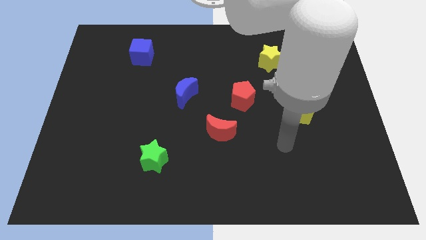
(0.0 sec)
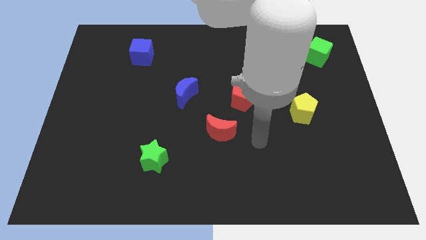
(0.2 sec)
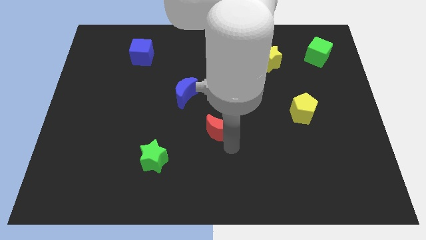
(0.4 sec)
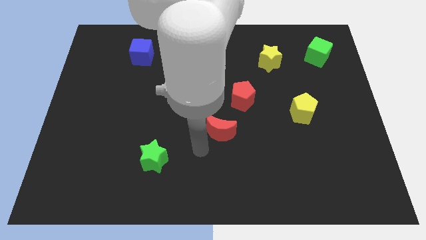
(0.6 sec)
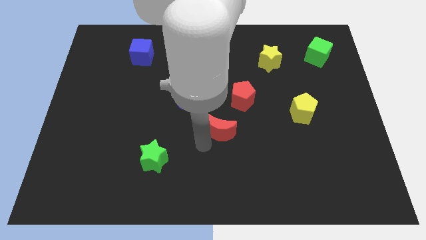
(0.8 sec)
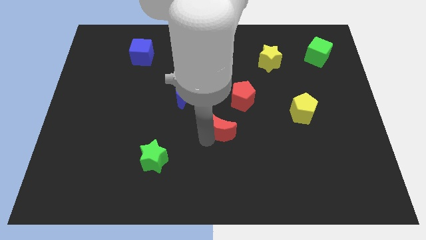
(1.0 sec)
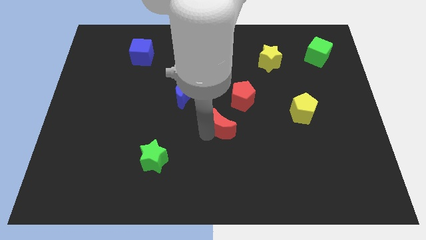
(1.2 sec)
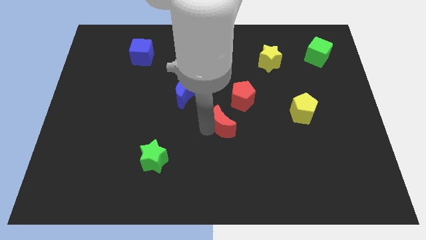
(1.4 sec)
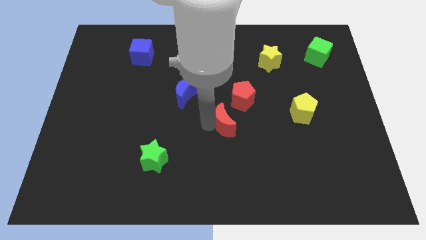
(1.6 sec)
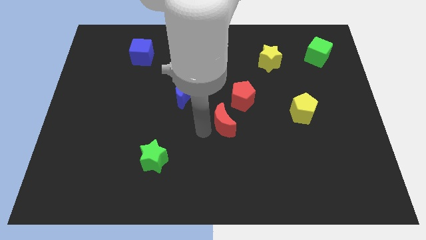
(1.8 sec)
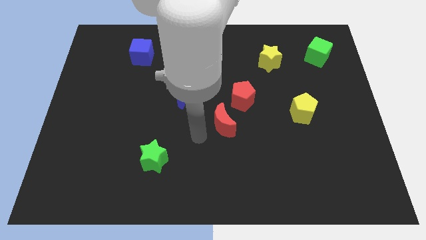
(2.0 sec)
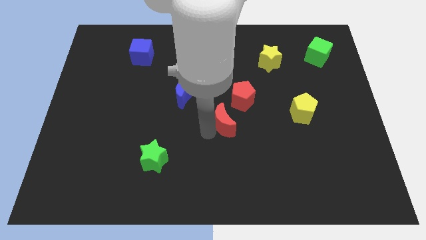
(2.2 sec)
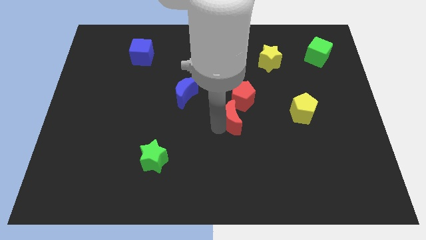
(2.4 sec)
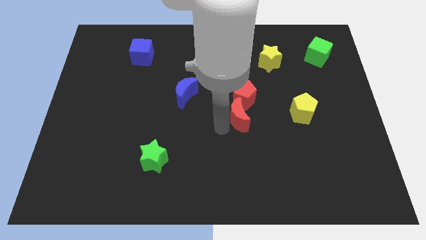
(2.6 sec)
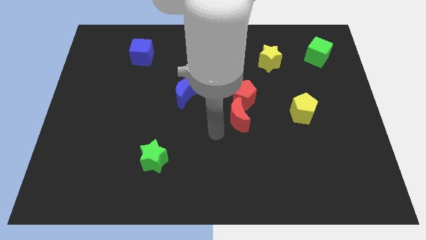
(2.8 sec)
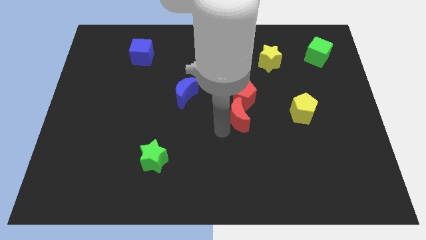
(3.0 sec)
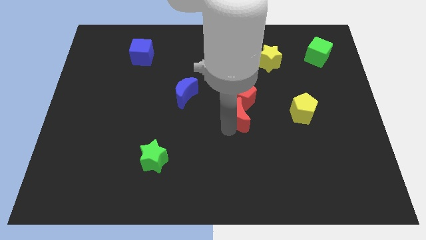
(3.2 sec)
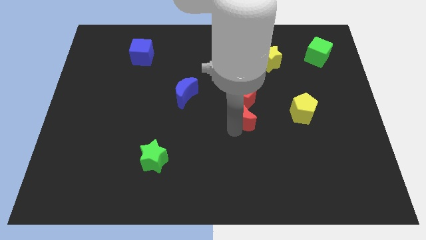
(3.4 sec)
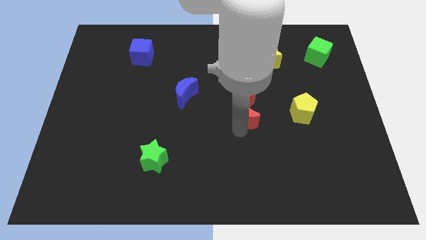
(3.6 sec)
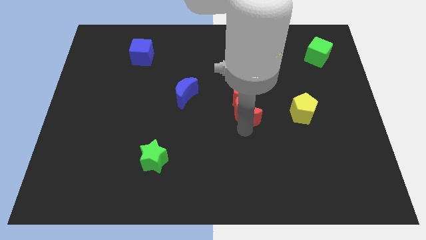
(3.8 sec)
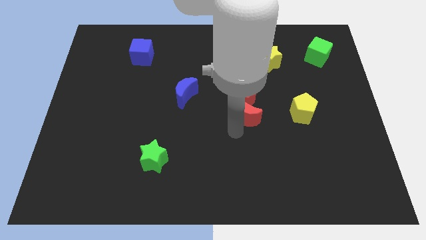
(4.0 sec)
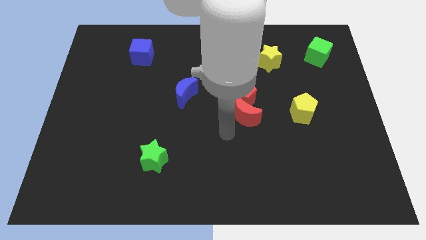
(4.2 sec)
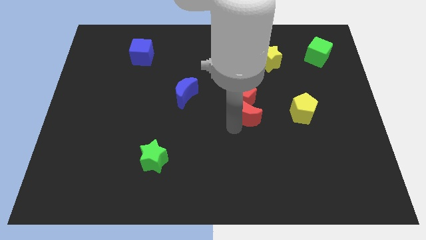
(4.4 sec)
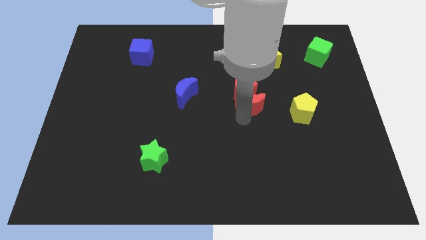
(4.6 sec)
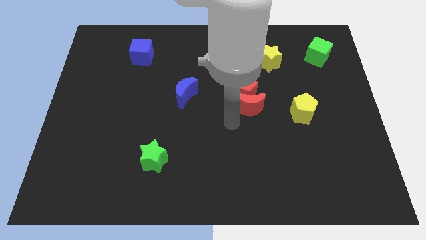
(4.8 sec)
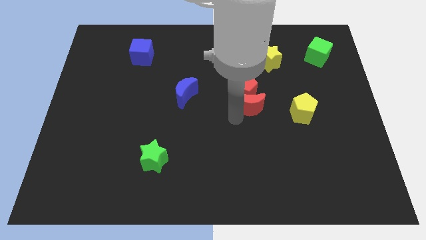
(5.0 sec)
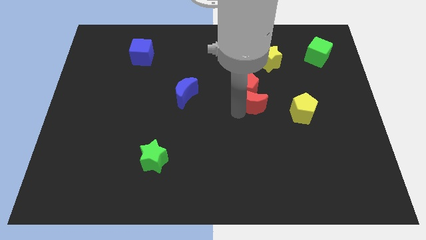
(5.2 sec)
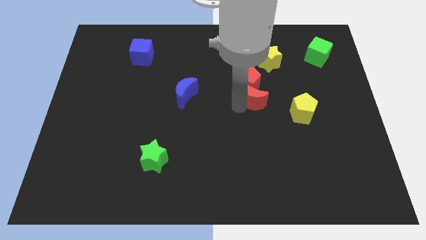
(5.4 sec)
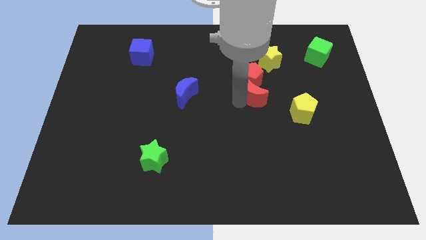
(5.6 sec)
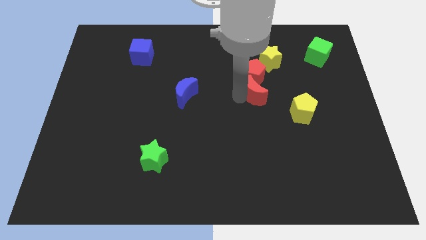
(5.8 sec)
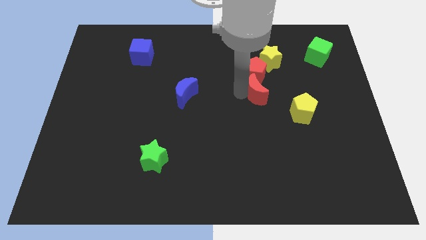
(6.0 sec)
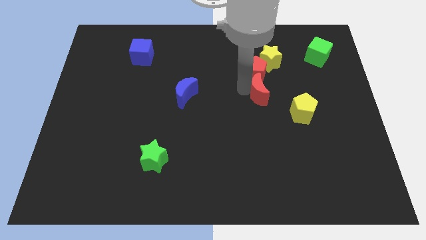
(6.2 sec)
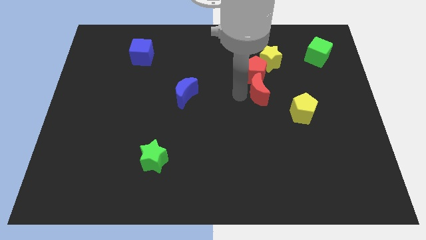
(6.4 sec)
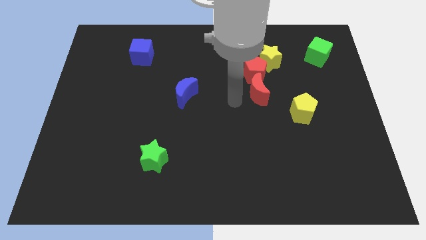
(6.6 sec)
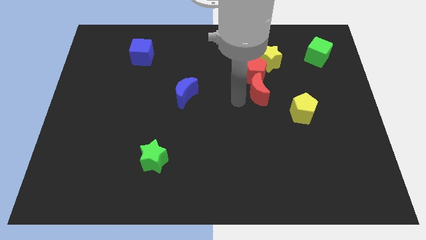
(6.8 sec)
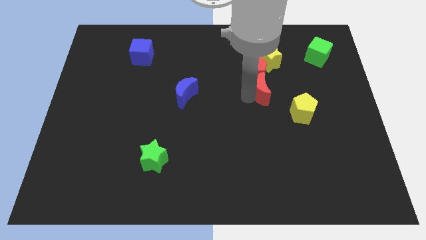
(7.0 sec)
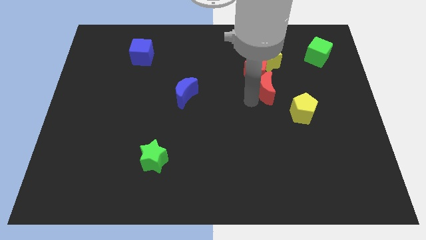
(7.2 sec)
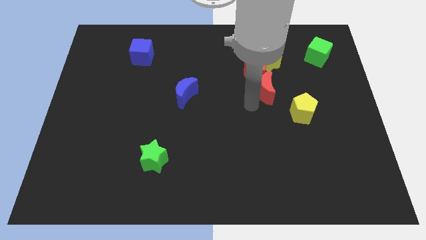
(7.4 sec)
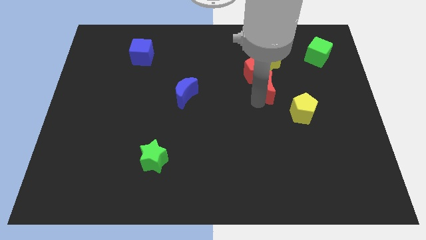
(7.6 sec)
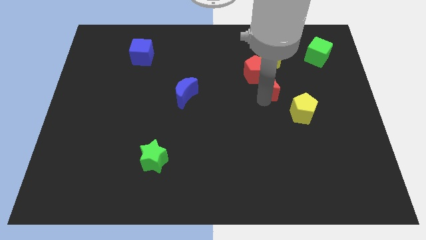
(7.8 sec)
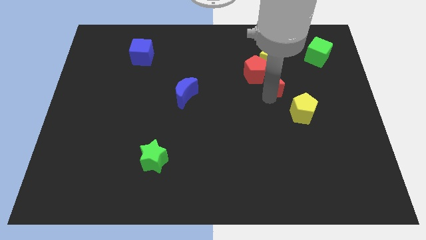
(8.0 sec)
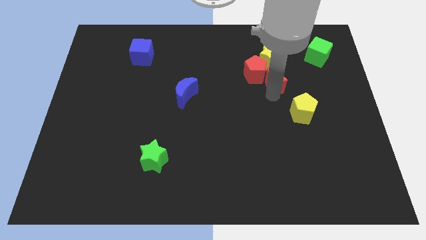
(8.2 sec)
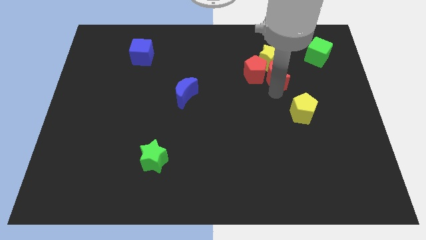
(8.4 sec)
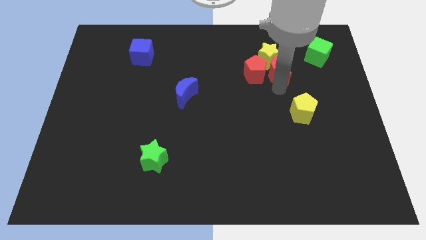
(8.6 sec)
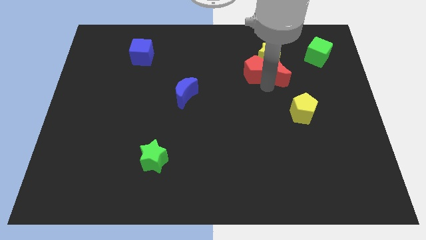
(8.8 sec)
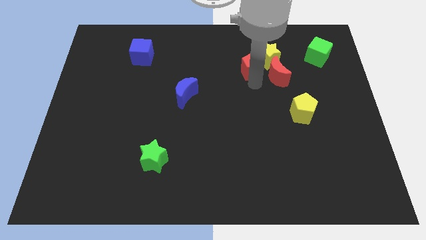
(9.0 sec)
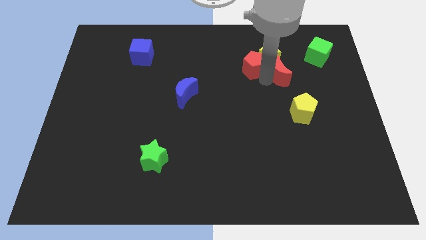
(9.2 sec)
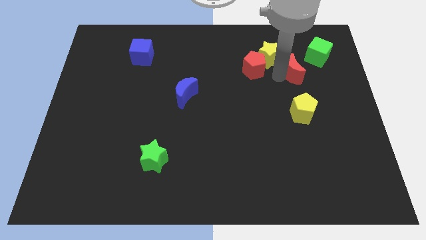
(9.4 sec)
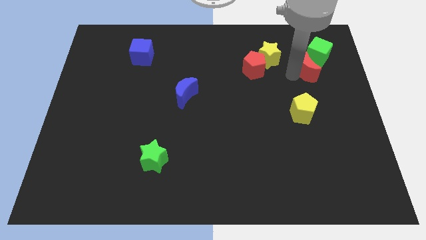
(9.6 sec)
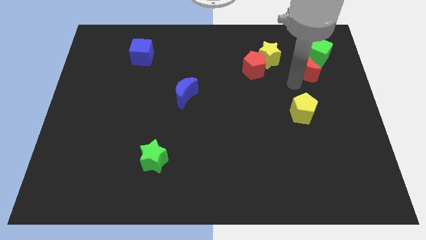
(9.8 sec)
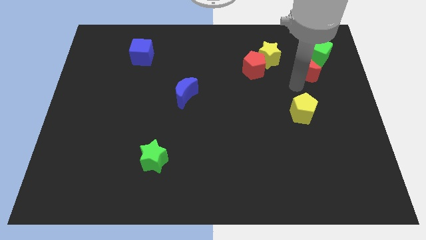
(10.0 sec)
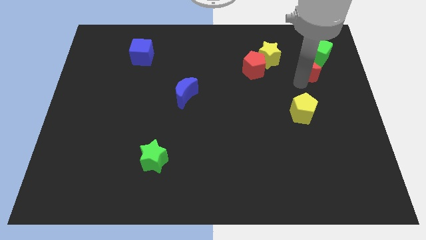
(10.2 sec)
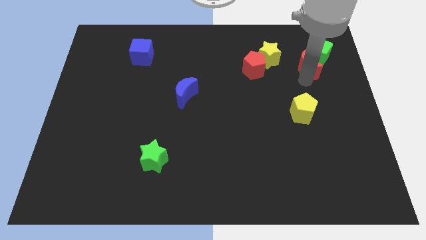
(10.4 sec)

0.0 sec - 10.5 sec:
slide the red moon to the green cube

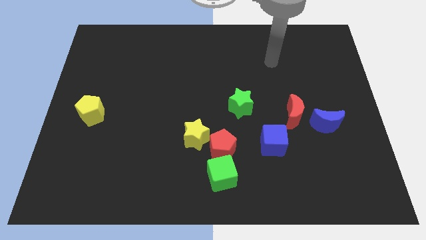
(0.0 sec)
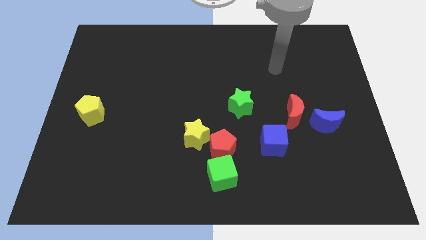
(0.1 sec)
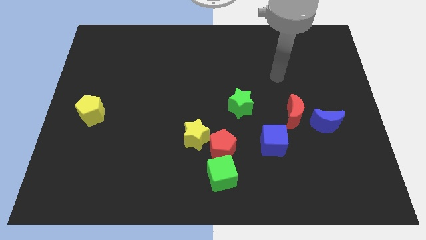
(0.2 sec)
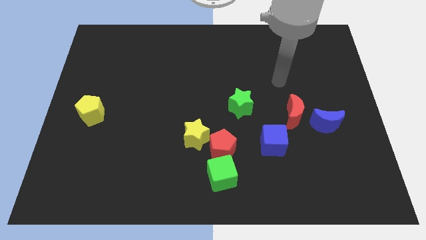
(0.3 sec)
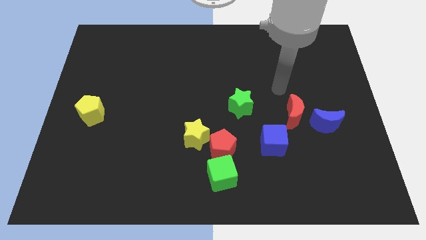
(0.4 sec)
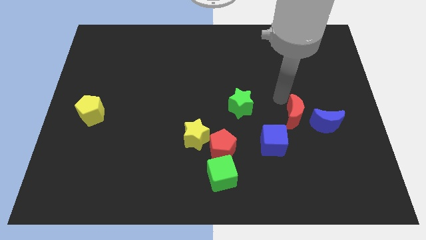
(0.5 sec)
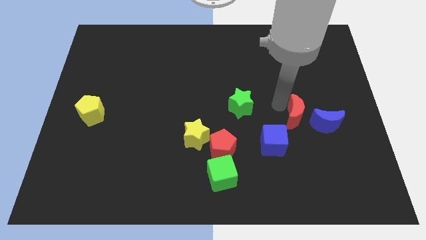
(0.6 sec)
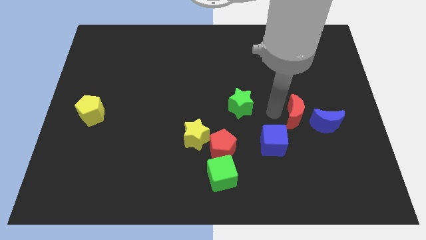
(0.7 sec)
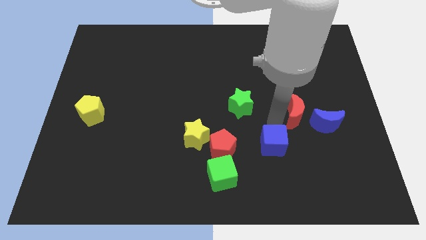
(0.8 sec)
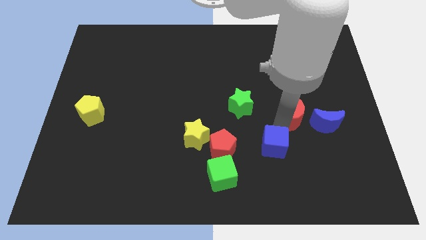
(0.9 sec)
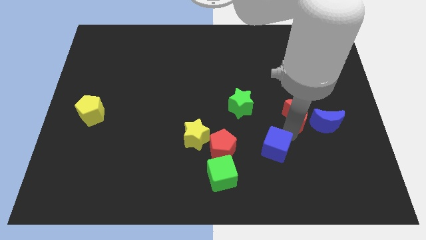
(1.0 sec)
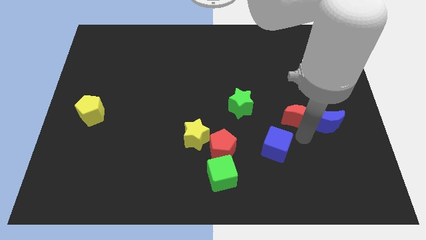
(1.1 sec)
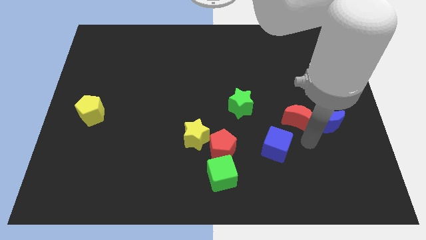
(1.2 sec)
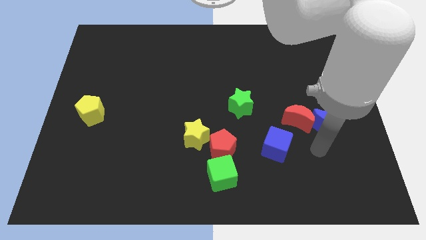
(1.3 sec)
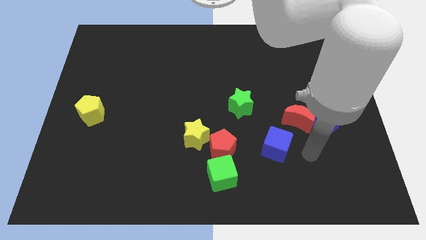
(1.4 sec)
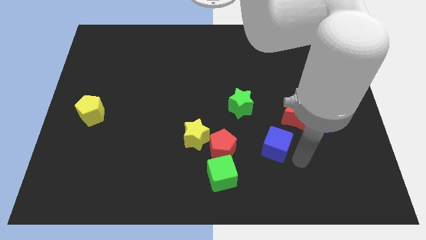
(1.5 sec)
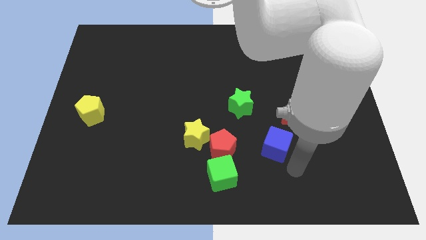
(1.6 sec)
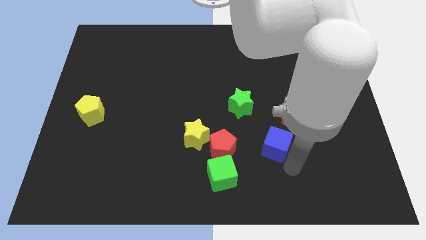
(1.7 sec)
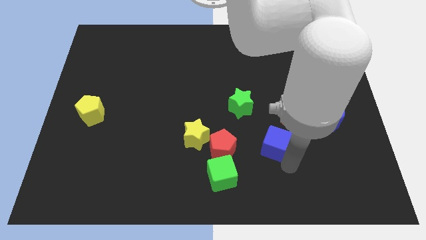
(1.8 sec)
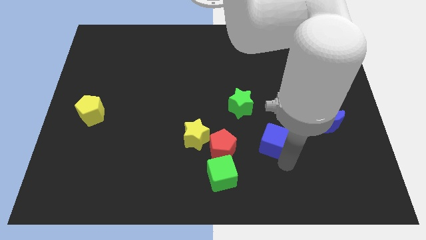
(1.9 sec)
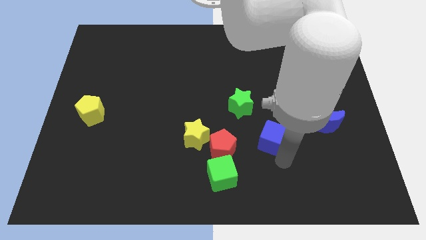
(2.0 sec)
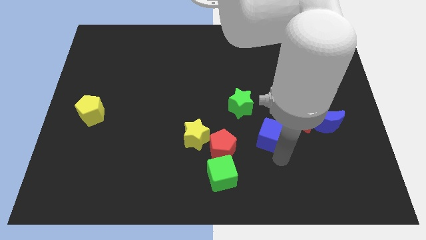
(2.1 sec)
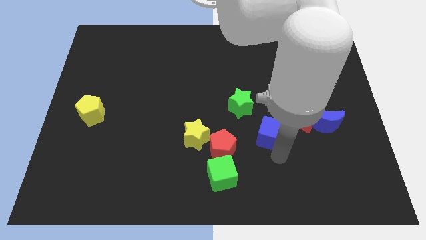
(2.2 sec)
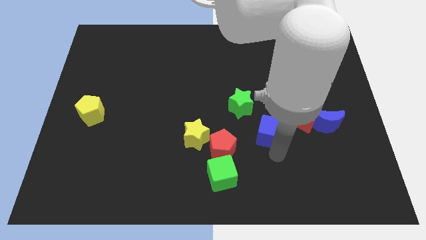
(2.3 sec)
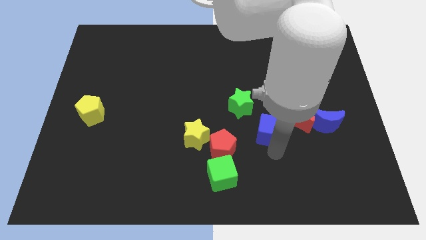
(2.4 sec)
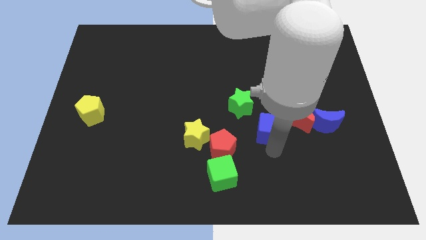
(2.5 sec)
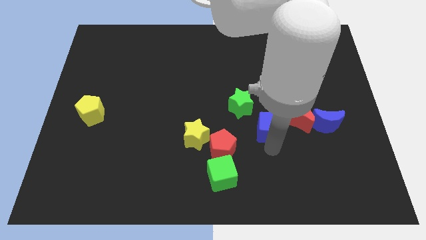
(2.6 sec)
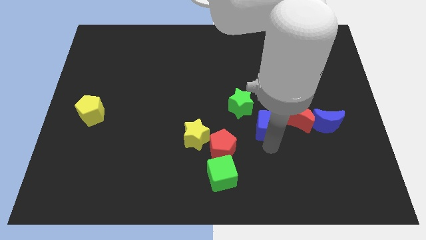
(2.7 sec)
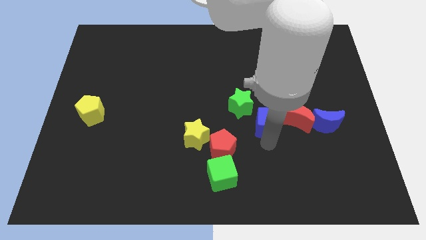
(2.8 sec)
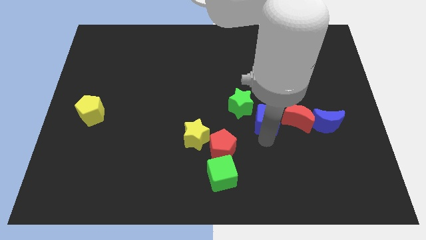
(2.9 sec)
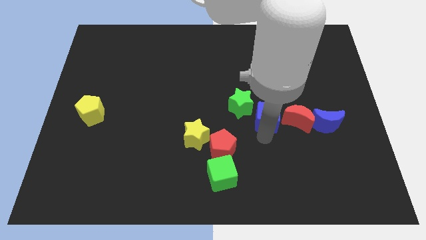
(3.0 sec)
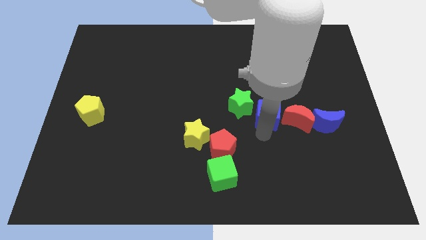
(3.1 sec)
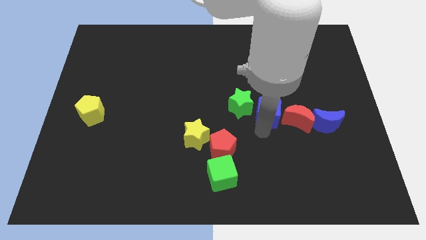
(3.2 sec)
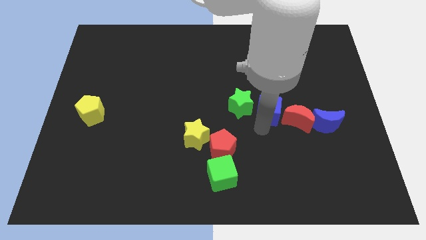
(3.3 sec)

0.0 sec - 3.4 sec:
push the blue cube towards the green star
